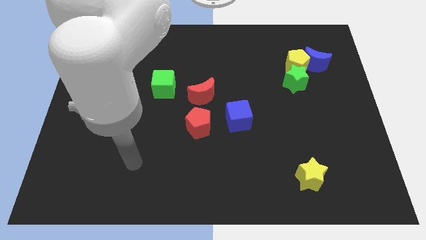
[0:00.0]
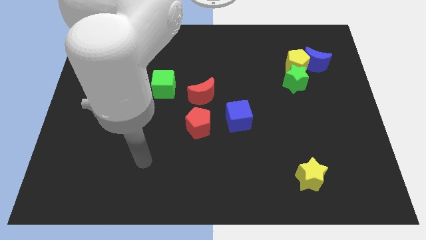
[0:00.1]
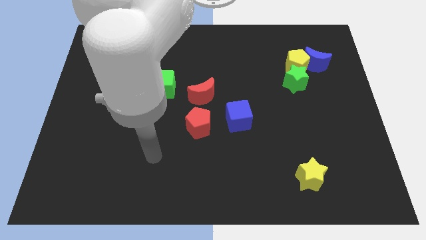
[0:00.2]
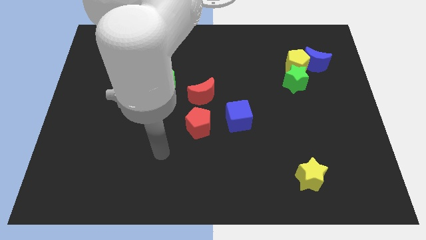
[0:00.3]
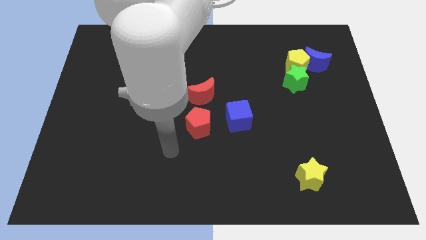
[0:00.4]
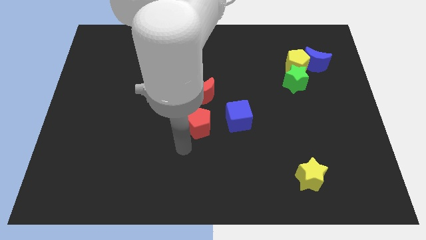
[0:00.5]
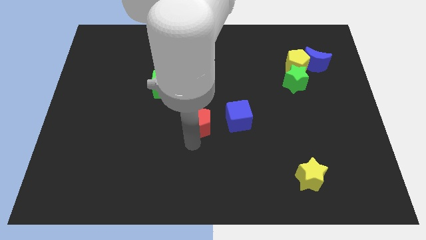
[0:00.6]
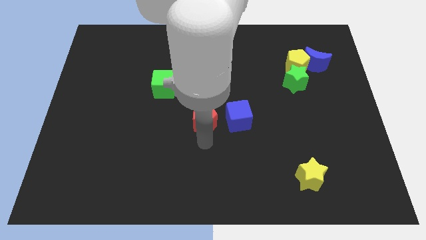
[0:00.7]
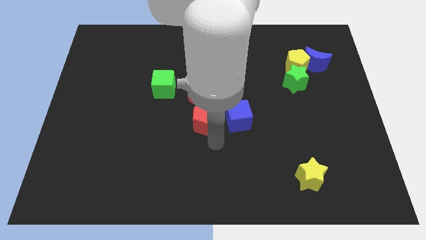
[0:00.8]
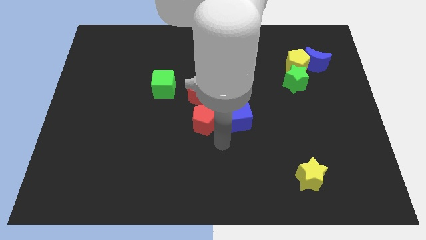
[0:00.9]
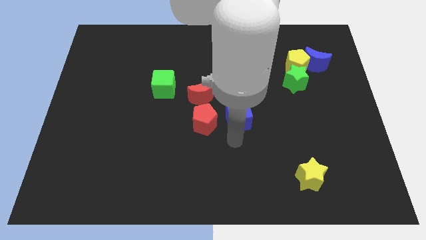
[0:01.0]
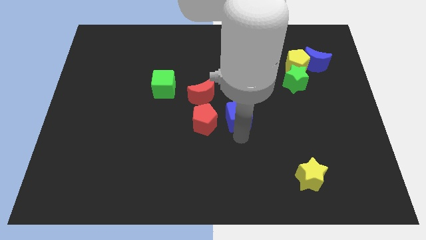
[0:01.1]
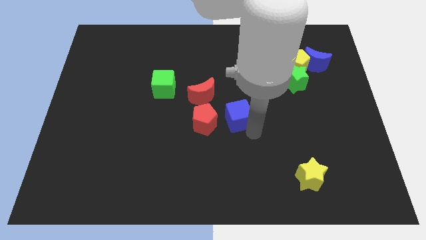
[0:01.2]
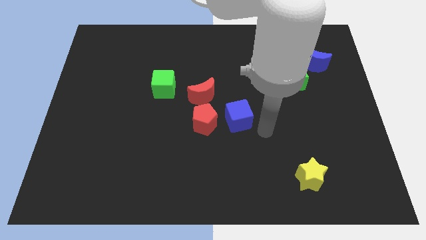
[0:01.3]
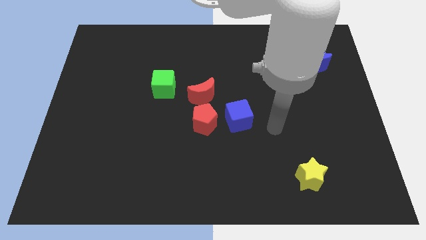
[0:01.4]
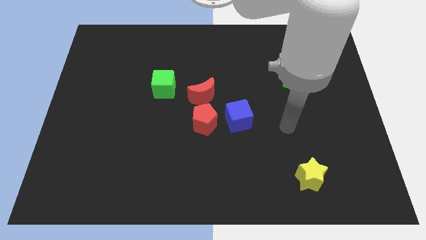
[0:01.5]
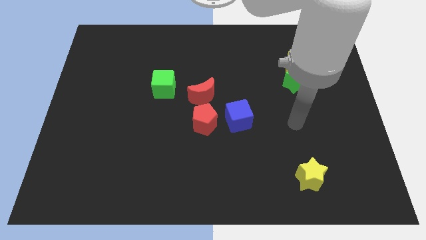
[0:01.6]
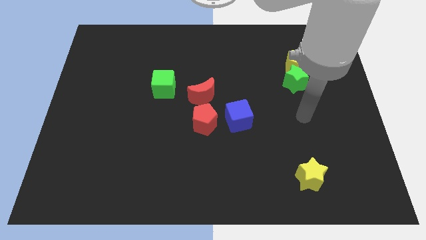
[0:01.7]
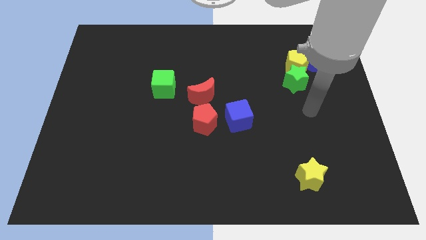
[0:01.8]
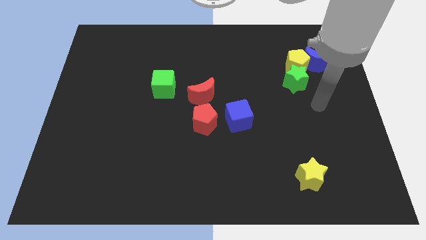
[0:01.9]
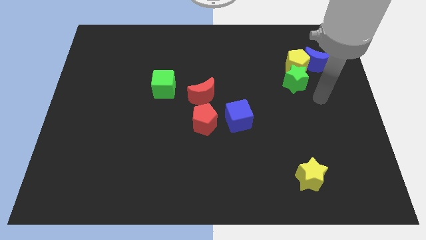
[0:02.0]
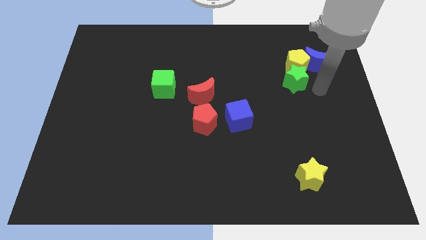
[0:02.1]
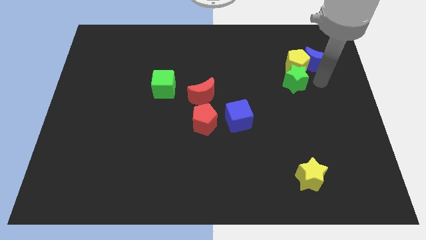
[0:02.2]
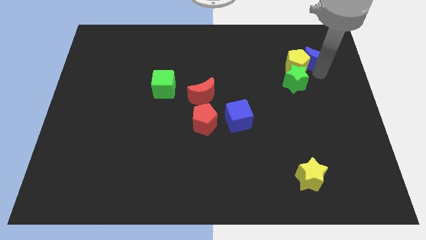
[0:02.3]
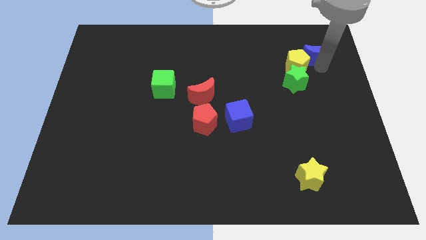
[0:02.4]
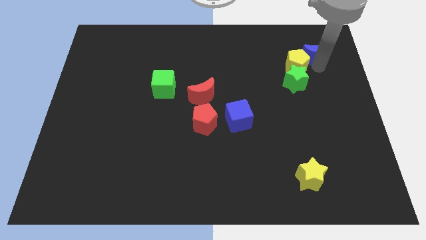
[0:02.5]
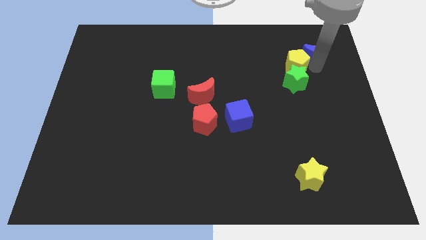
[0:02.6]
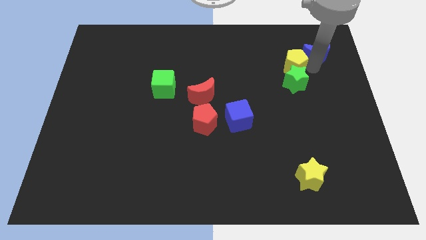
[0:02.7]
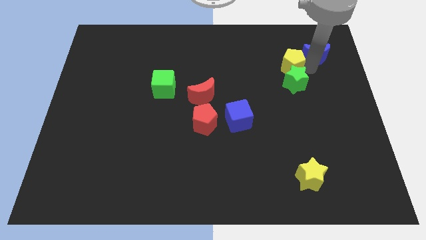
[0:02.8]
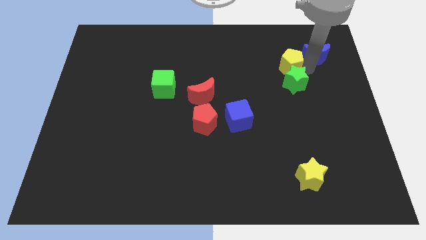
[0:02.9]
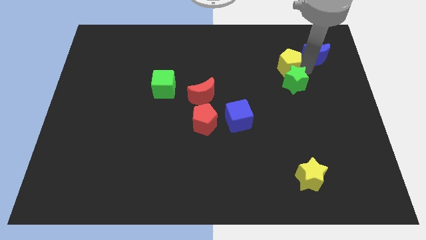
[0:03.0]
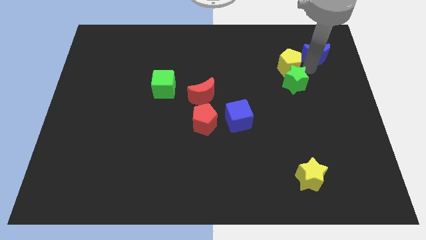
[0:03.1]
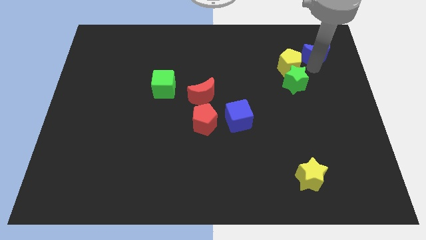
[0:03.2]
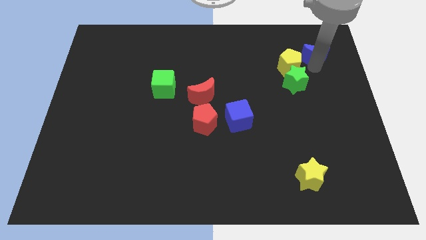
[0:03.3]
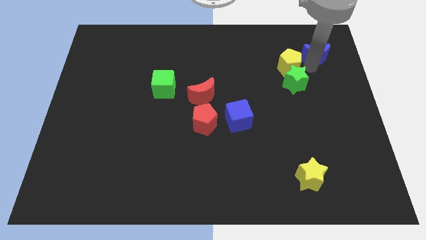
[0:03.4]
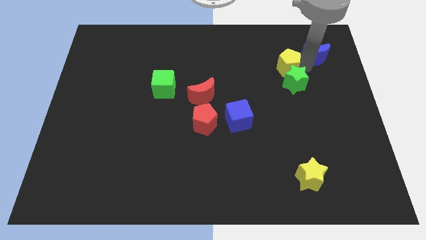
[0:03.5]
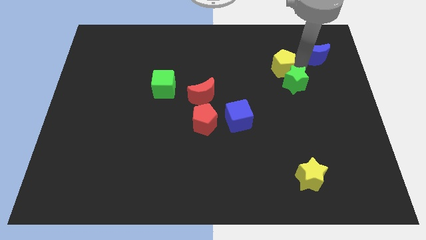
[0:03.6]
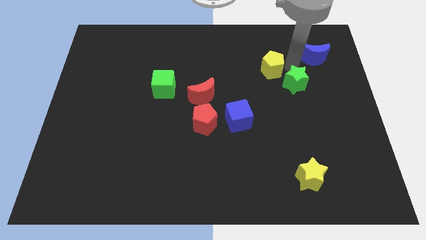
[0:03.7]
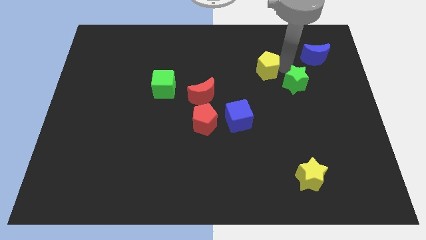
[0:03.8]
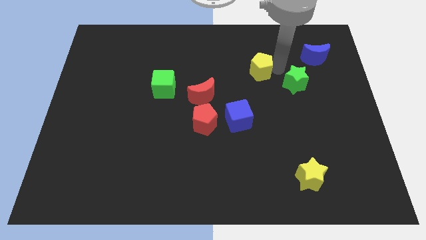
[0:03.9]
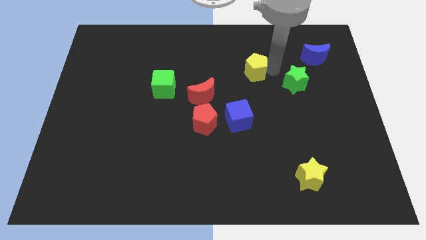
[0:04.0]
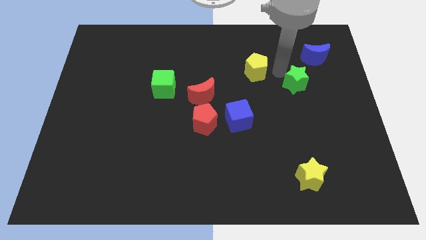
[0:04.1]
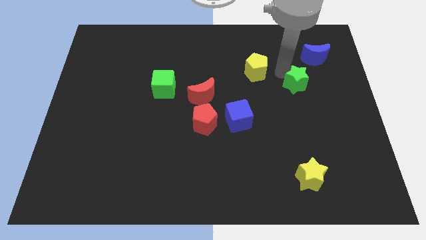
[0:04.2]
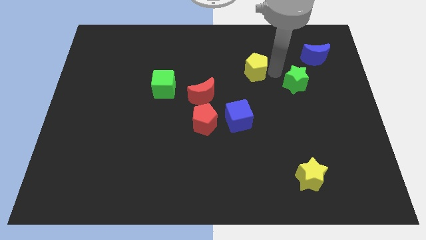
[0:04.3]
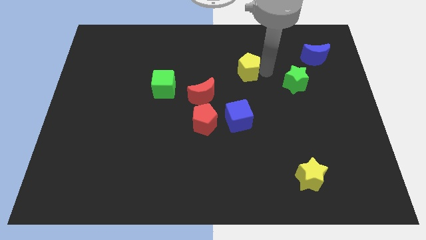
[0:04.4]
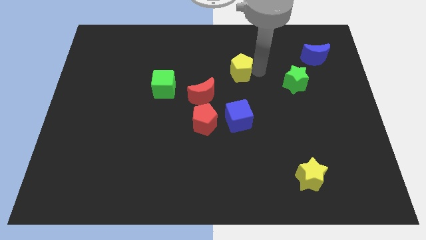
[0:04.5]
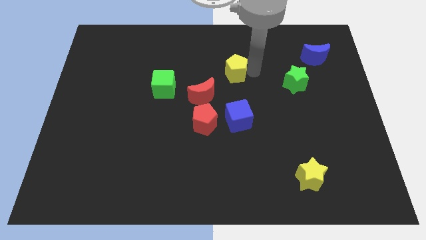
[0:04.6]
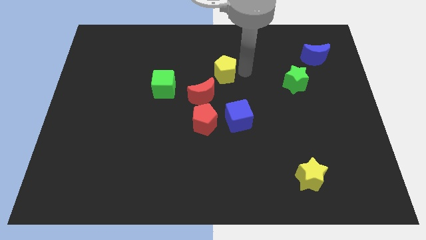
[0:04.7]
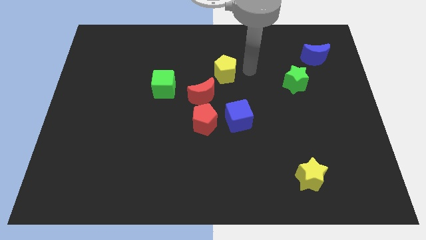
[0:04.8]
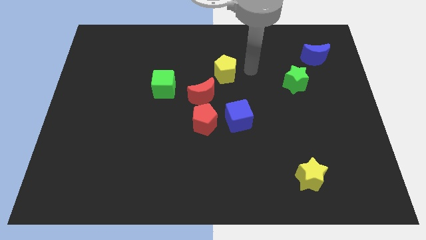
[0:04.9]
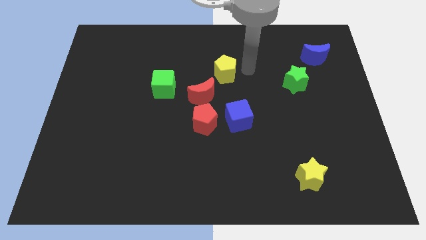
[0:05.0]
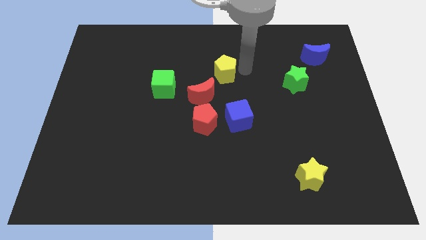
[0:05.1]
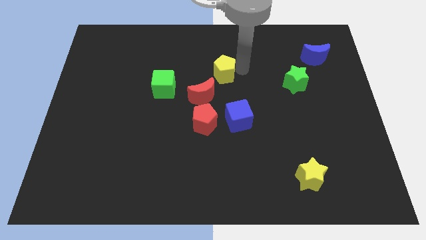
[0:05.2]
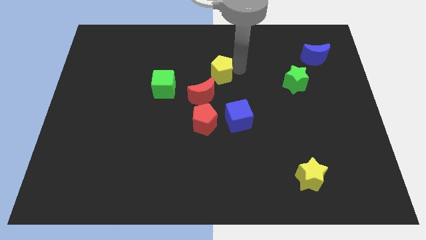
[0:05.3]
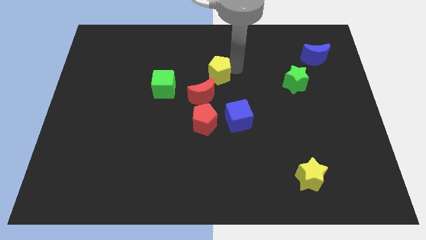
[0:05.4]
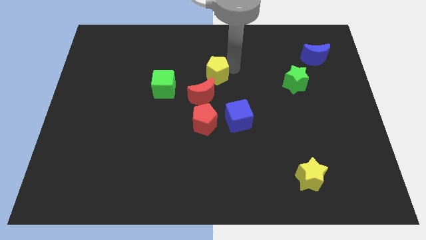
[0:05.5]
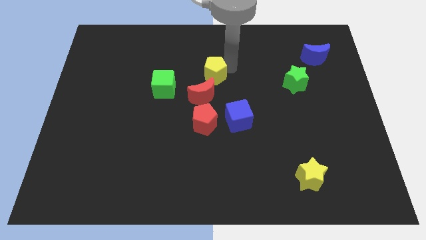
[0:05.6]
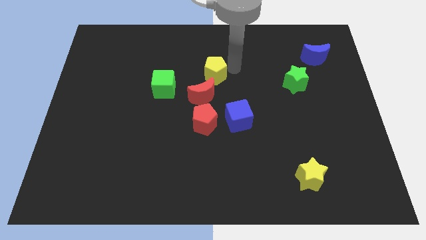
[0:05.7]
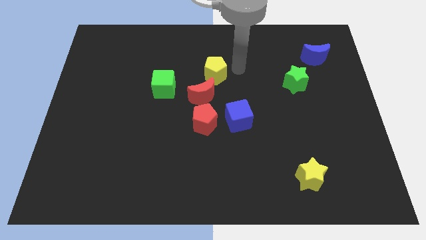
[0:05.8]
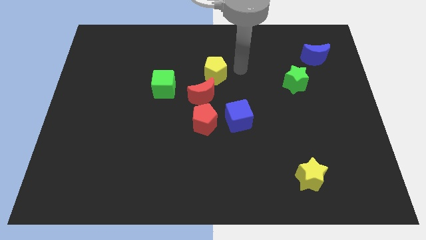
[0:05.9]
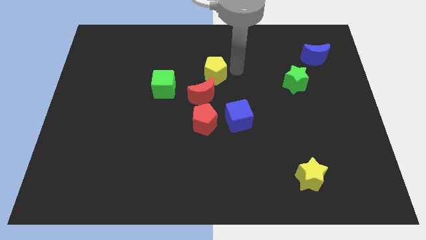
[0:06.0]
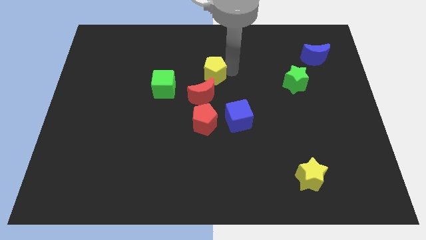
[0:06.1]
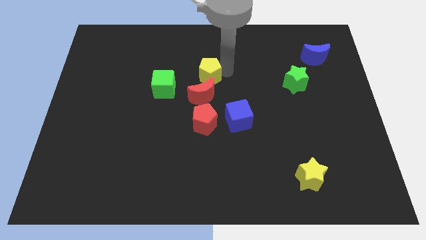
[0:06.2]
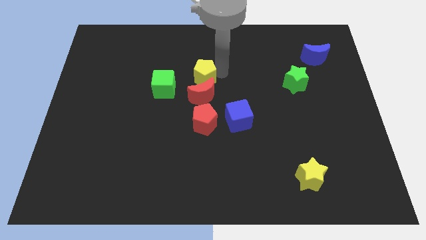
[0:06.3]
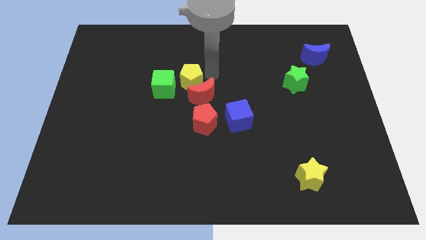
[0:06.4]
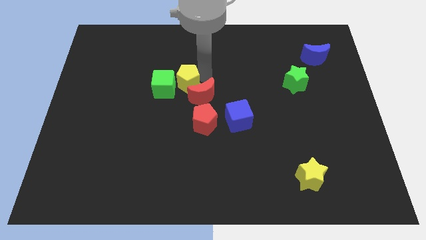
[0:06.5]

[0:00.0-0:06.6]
push the yellow pentagon to the green cube

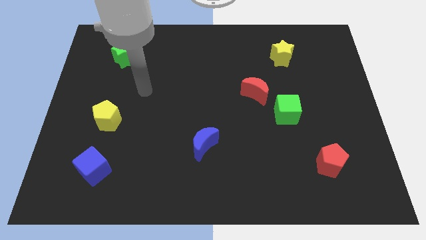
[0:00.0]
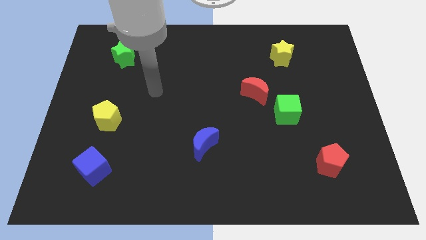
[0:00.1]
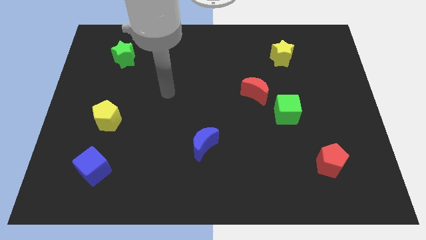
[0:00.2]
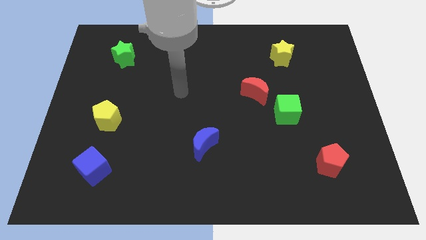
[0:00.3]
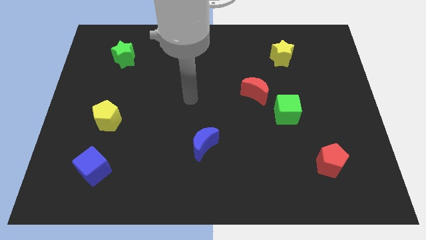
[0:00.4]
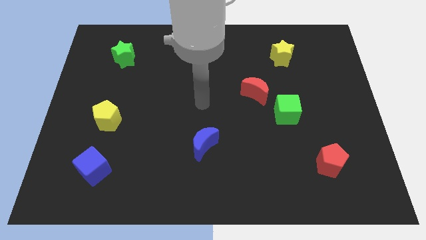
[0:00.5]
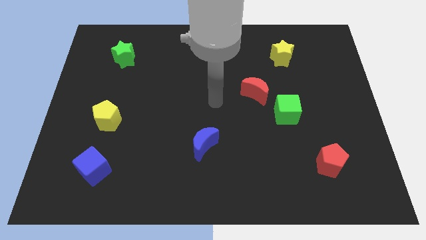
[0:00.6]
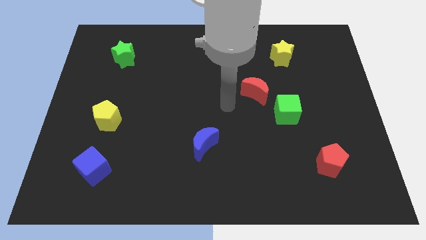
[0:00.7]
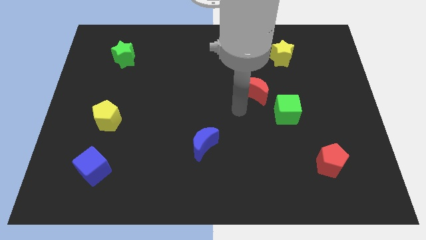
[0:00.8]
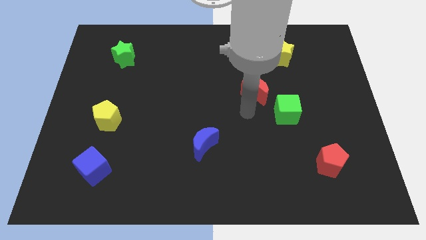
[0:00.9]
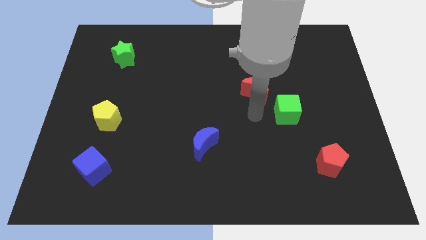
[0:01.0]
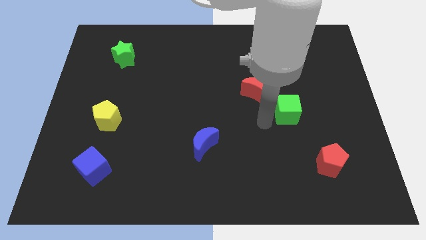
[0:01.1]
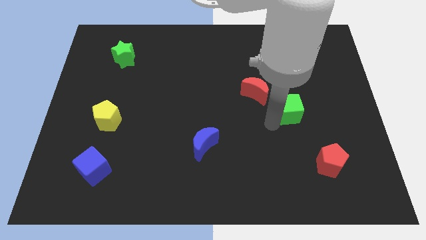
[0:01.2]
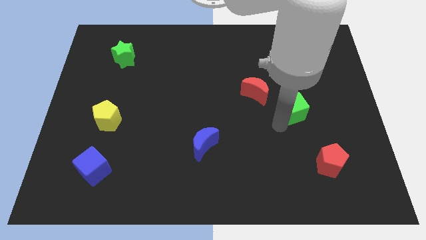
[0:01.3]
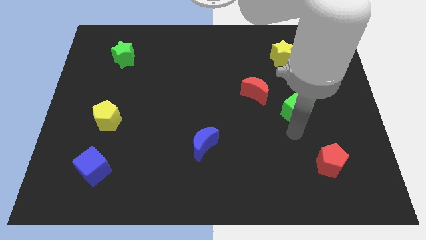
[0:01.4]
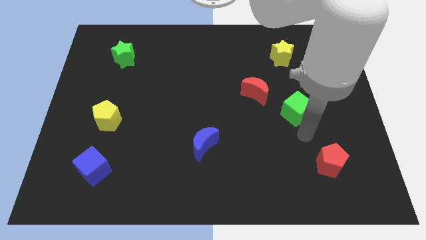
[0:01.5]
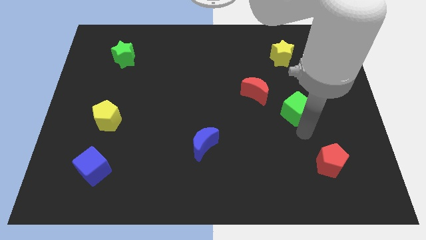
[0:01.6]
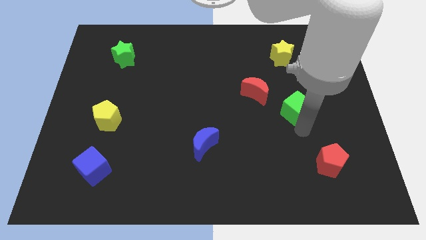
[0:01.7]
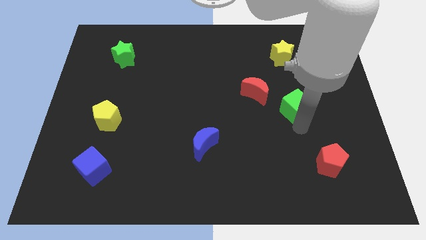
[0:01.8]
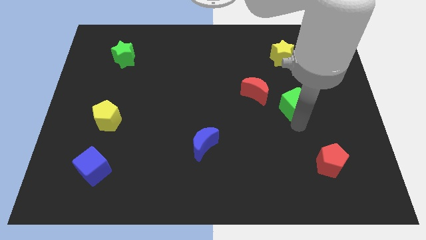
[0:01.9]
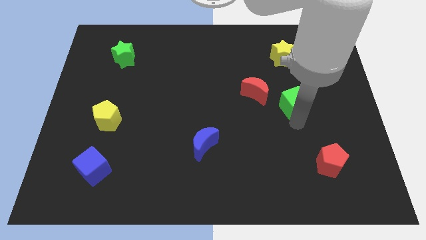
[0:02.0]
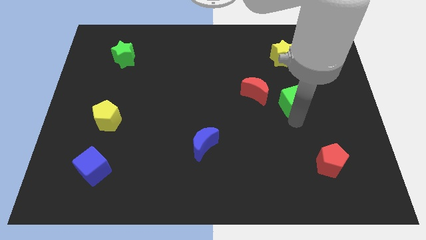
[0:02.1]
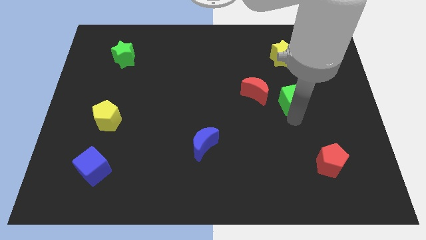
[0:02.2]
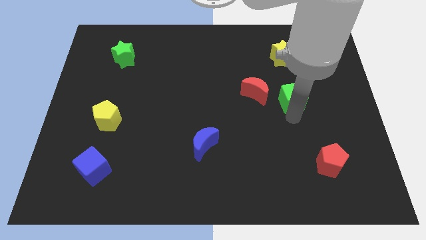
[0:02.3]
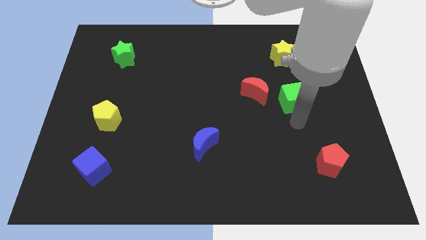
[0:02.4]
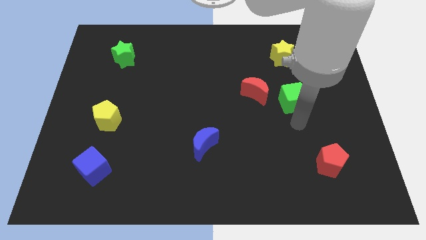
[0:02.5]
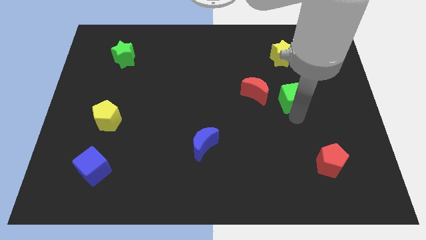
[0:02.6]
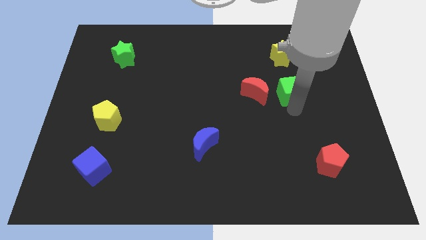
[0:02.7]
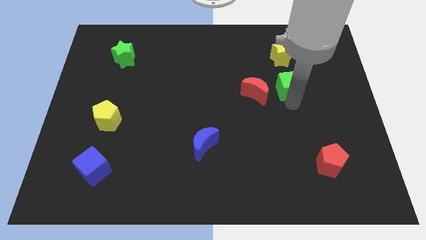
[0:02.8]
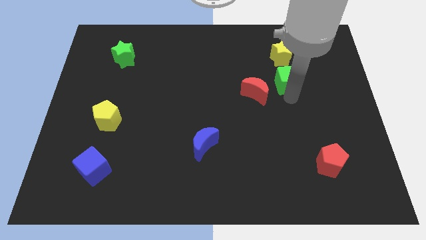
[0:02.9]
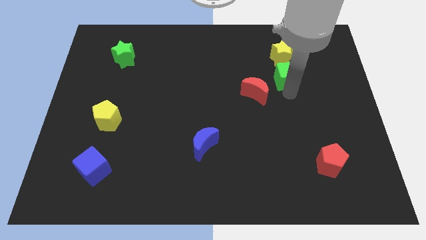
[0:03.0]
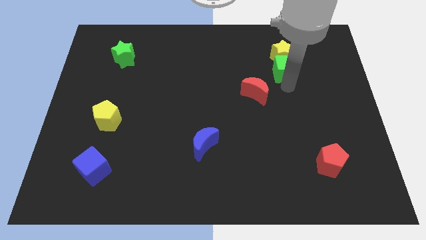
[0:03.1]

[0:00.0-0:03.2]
put the green cube next to the yellow star
